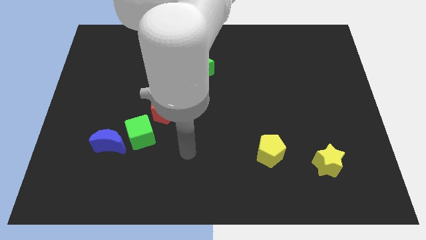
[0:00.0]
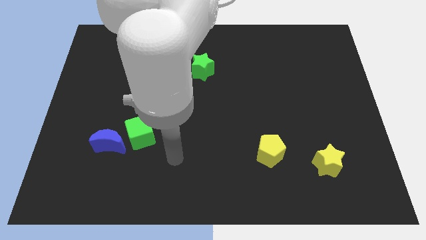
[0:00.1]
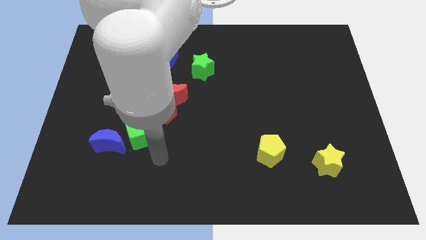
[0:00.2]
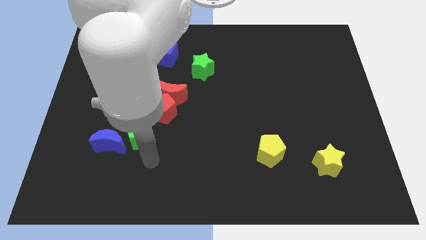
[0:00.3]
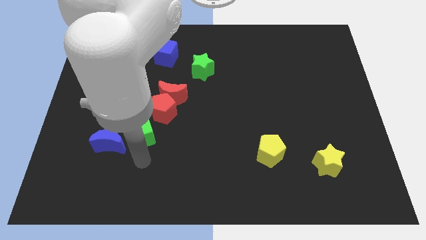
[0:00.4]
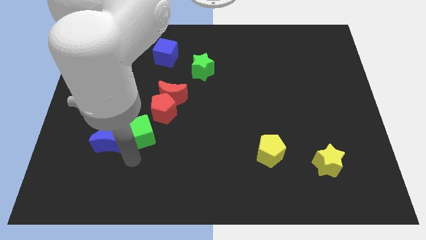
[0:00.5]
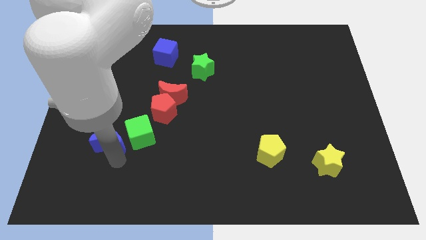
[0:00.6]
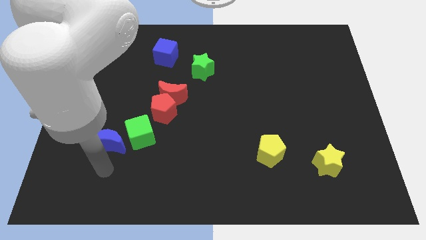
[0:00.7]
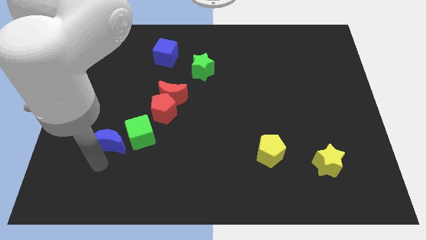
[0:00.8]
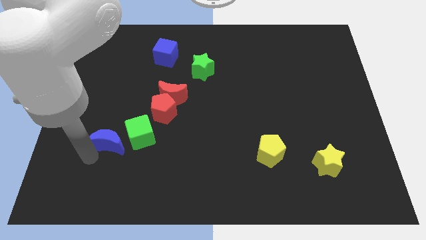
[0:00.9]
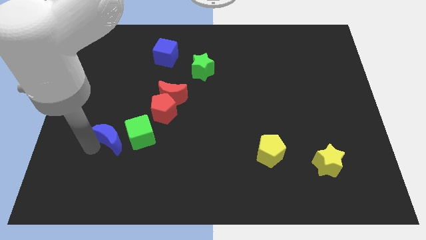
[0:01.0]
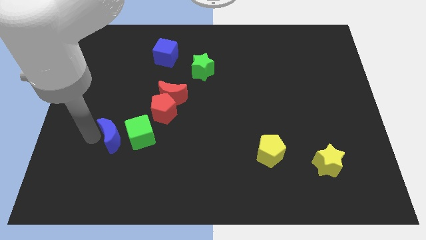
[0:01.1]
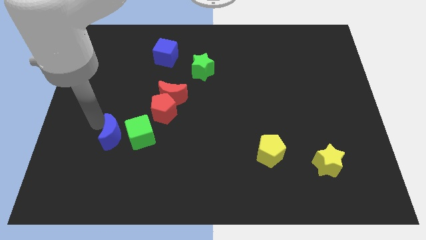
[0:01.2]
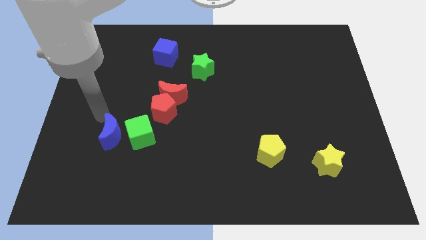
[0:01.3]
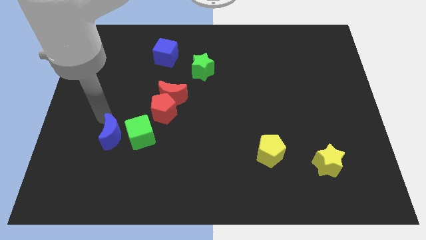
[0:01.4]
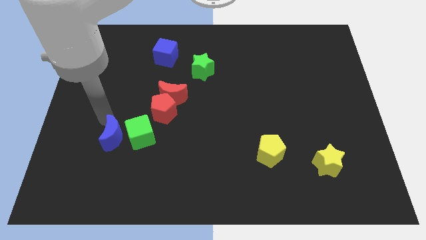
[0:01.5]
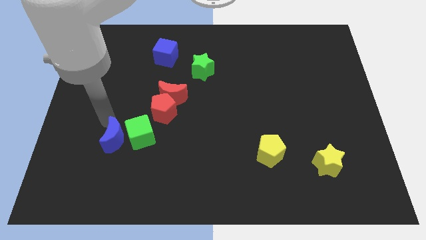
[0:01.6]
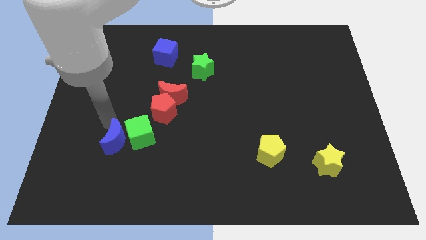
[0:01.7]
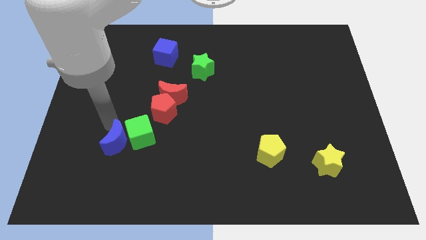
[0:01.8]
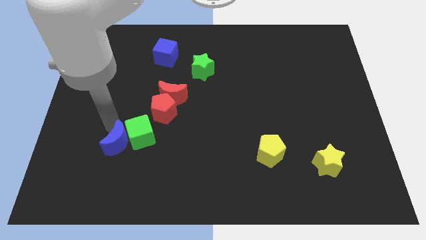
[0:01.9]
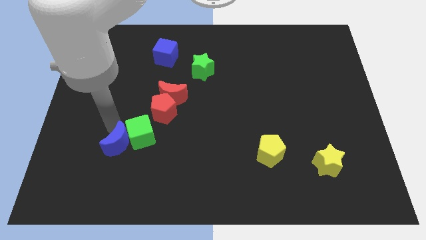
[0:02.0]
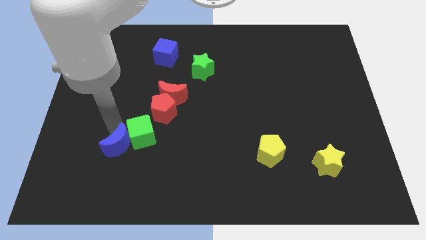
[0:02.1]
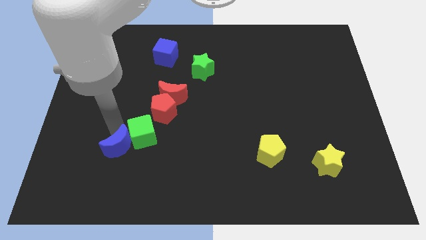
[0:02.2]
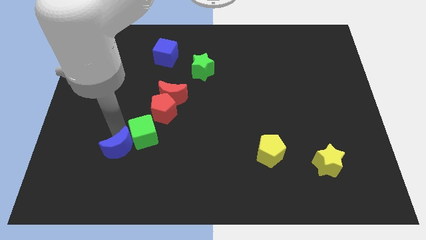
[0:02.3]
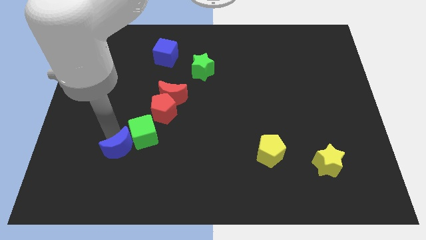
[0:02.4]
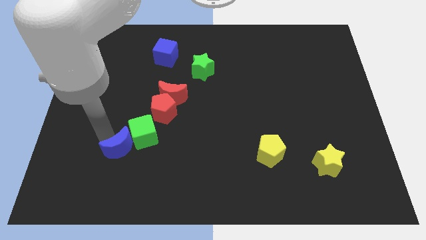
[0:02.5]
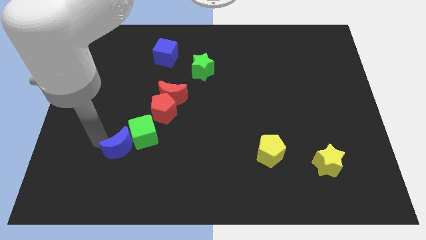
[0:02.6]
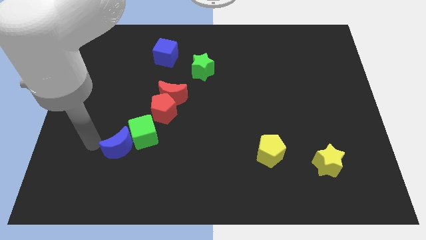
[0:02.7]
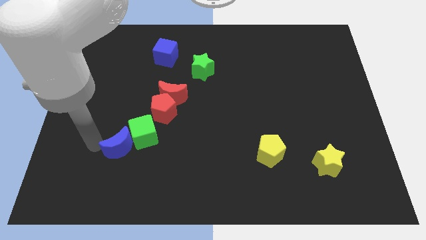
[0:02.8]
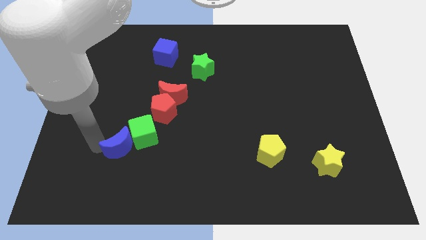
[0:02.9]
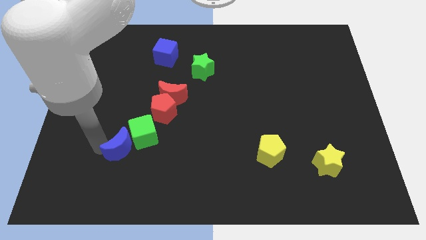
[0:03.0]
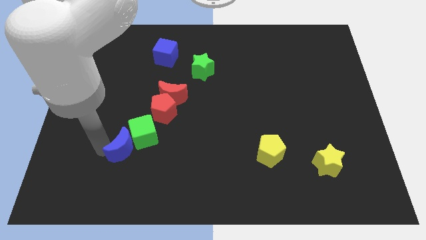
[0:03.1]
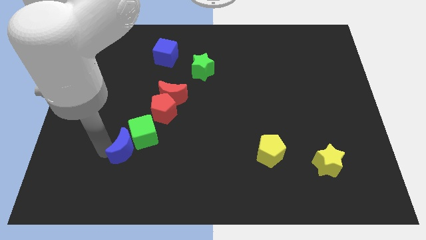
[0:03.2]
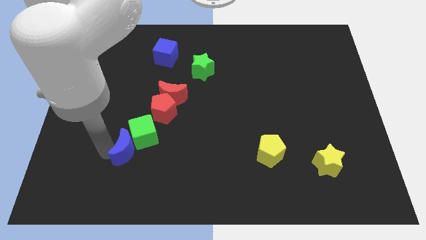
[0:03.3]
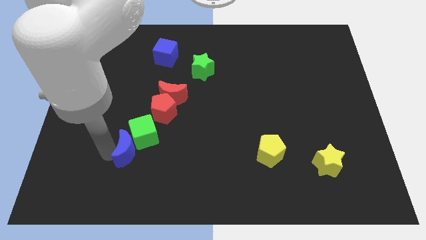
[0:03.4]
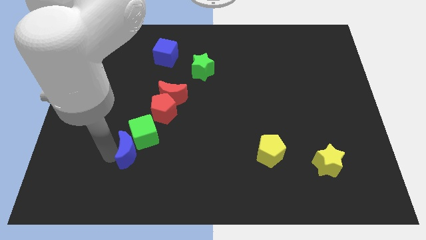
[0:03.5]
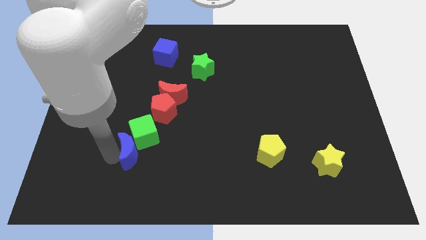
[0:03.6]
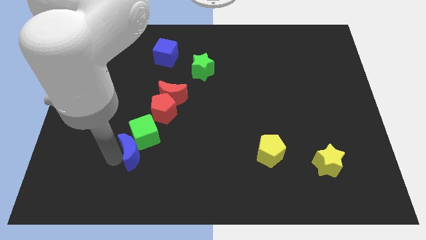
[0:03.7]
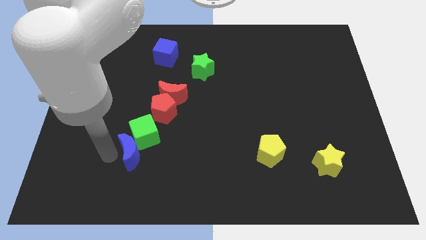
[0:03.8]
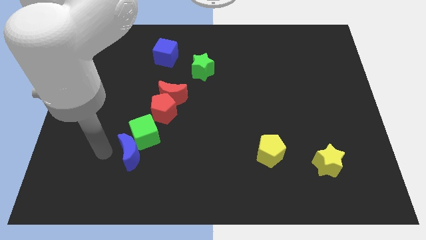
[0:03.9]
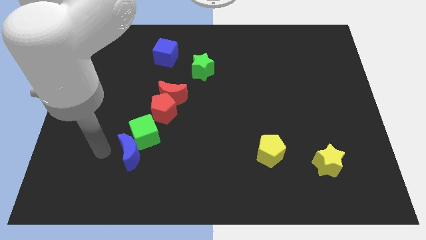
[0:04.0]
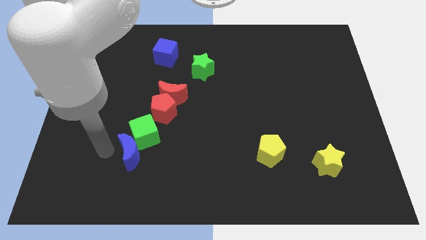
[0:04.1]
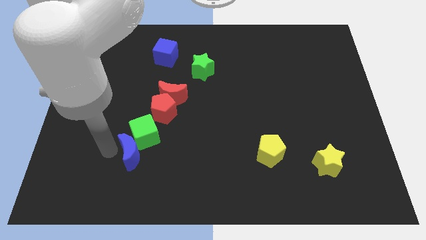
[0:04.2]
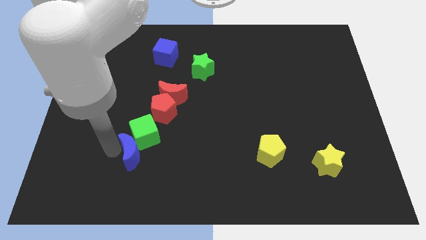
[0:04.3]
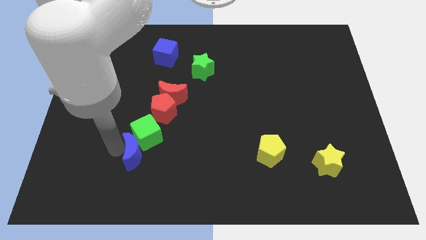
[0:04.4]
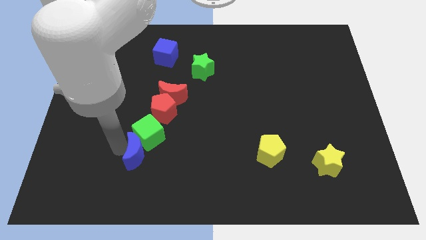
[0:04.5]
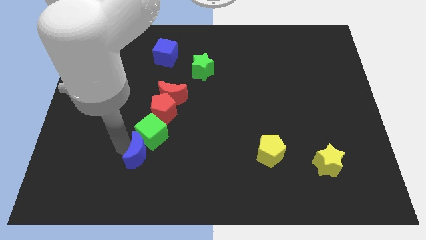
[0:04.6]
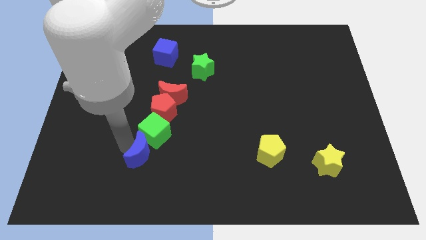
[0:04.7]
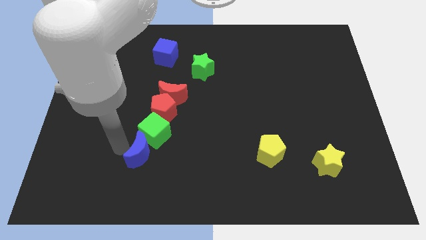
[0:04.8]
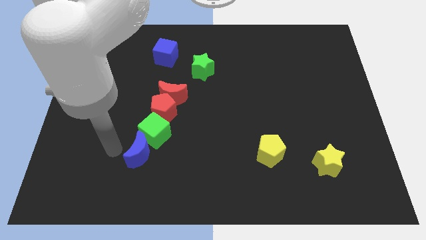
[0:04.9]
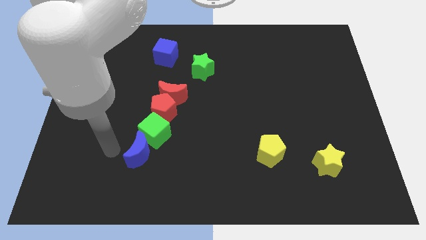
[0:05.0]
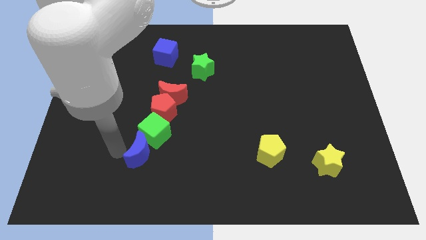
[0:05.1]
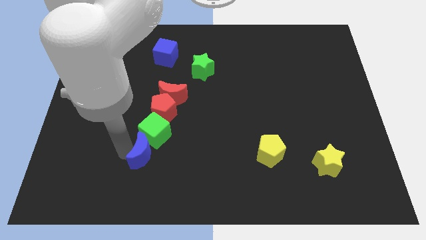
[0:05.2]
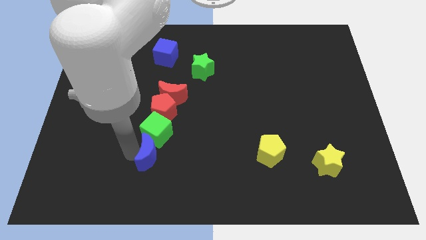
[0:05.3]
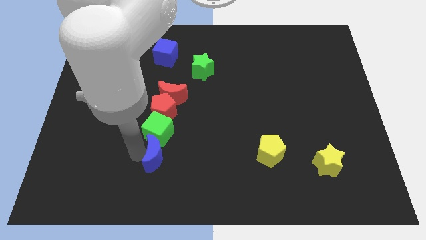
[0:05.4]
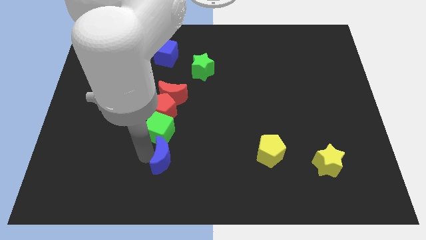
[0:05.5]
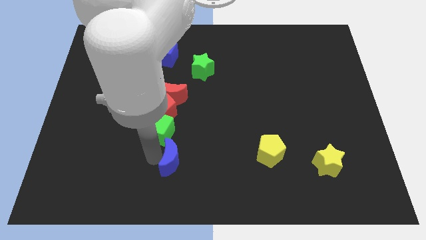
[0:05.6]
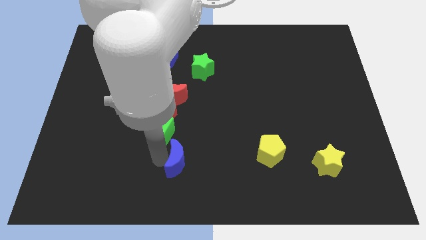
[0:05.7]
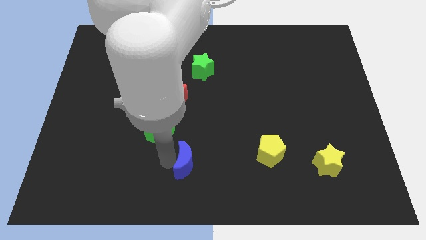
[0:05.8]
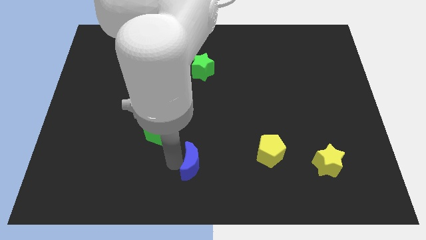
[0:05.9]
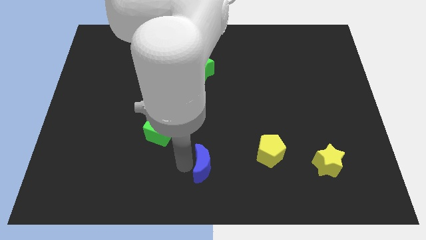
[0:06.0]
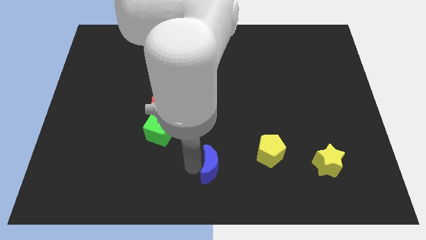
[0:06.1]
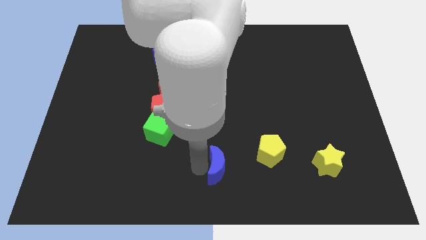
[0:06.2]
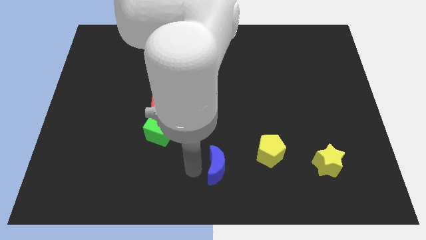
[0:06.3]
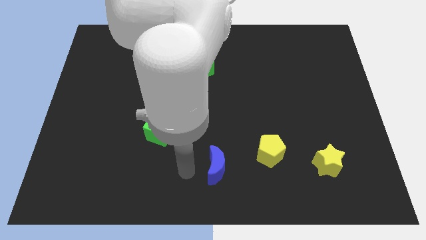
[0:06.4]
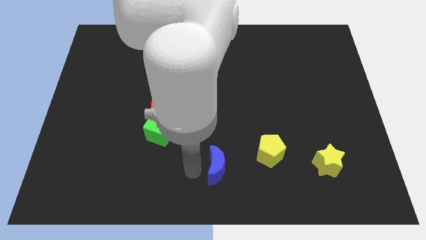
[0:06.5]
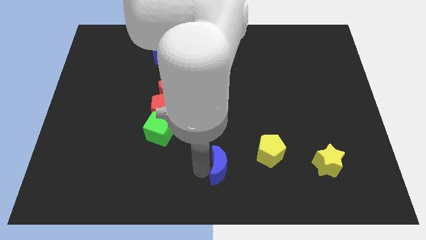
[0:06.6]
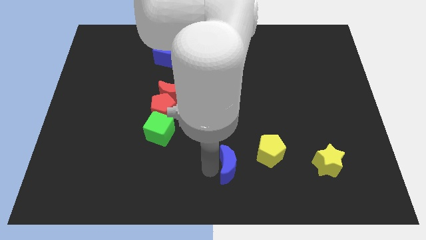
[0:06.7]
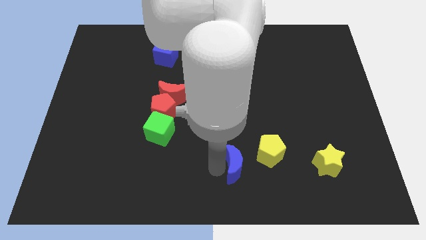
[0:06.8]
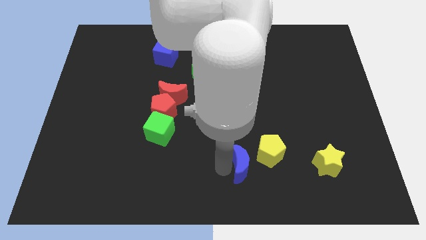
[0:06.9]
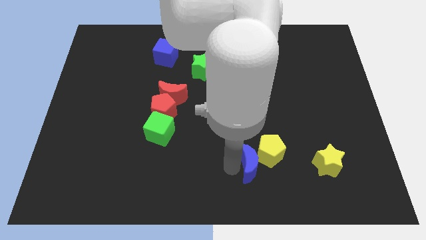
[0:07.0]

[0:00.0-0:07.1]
put the blue moon just left of the yellow star

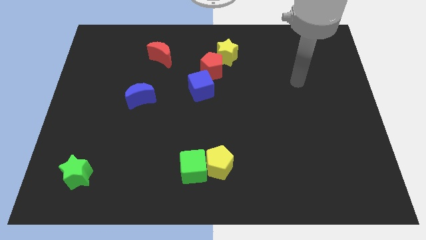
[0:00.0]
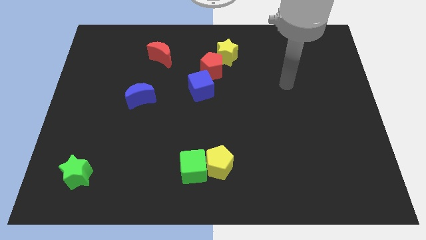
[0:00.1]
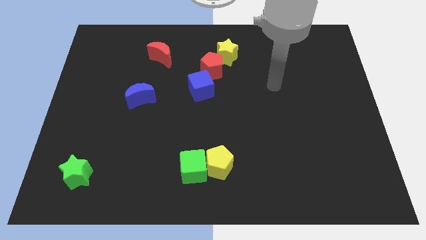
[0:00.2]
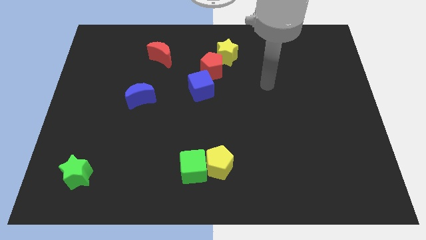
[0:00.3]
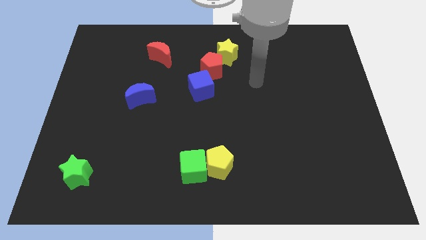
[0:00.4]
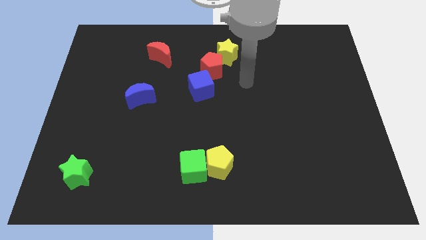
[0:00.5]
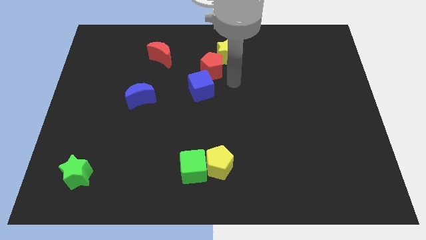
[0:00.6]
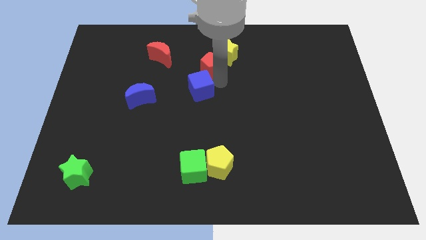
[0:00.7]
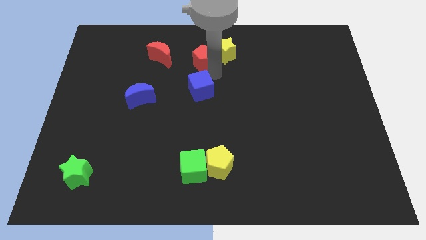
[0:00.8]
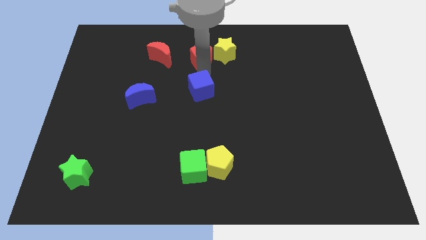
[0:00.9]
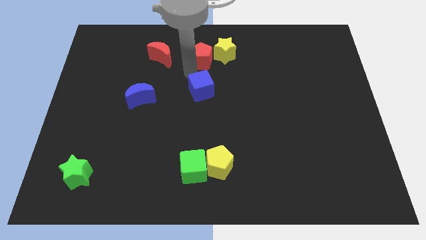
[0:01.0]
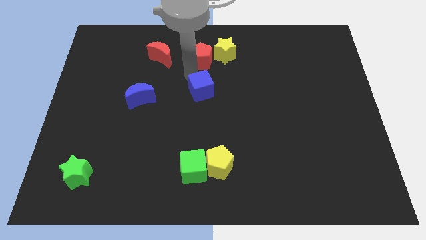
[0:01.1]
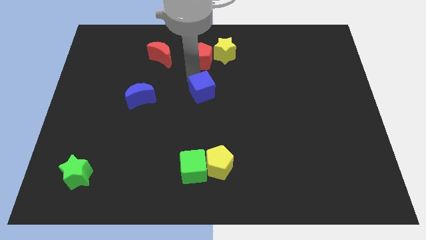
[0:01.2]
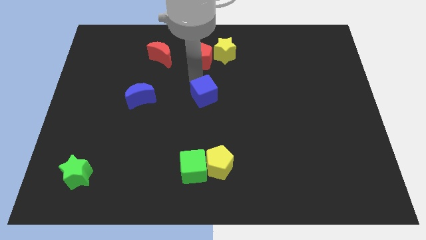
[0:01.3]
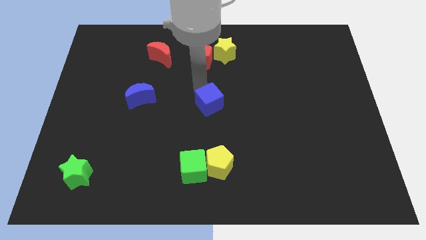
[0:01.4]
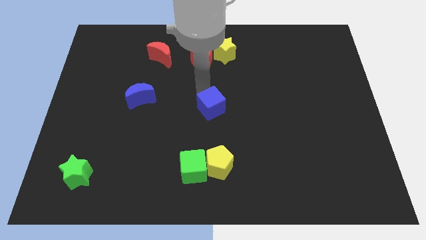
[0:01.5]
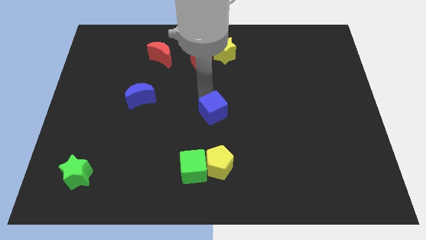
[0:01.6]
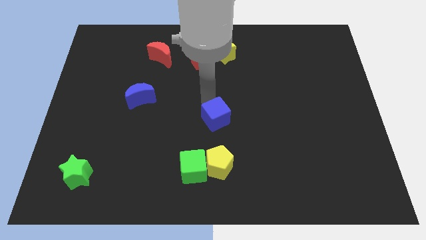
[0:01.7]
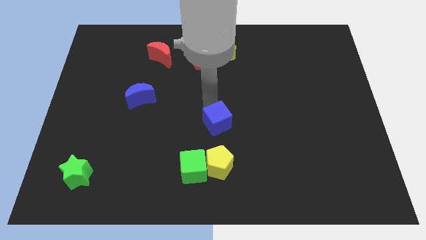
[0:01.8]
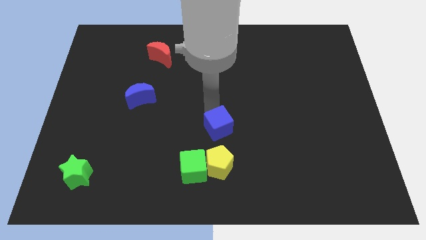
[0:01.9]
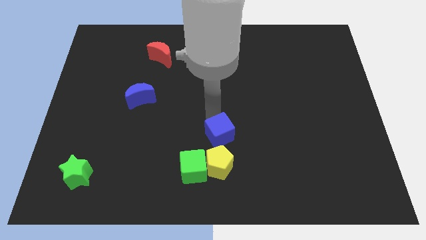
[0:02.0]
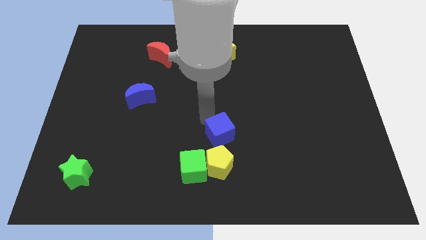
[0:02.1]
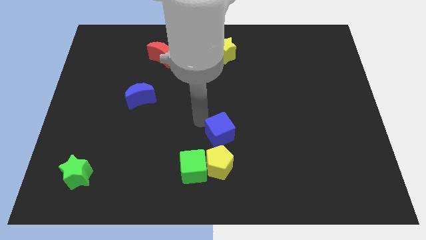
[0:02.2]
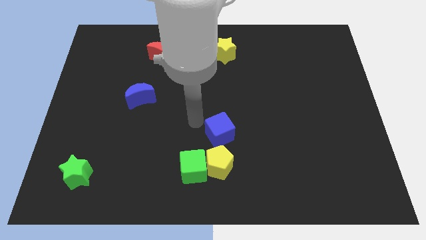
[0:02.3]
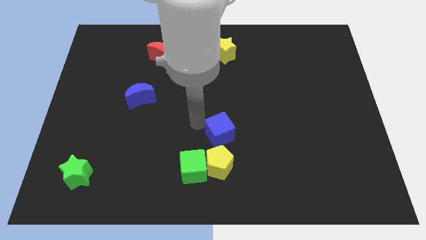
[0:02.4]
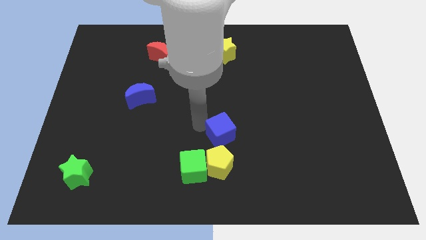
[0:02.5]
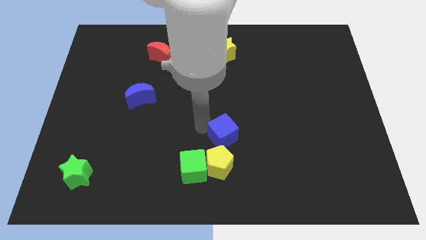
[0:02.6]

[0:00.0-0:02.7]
move the blue cube to the top right side of the yellow pentagon
